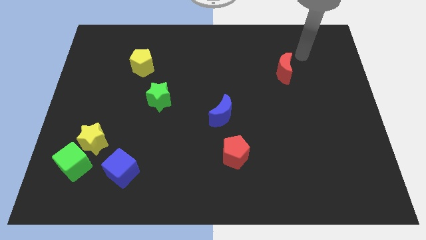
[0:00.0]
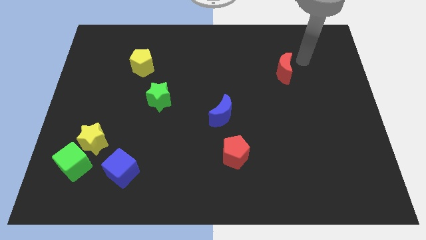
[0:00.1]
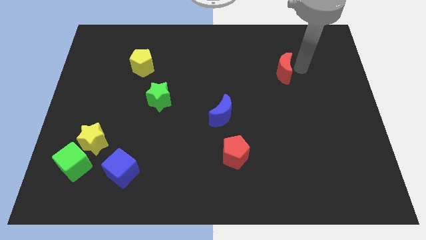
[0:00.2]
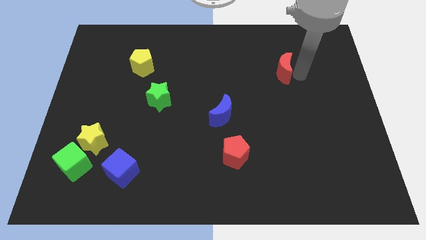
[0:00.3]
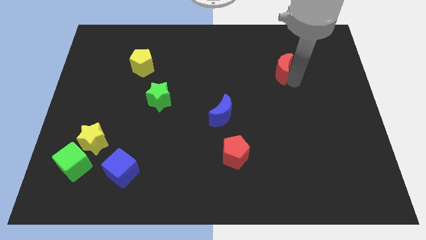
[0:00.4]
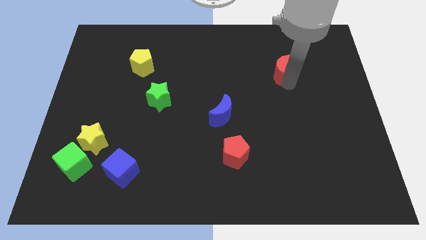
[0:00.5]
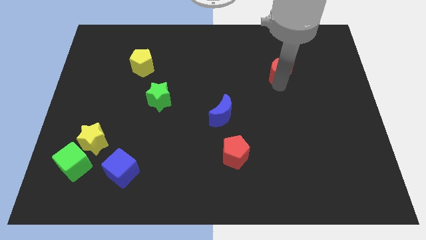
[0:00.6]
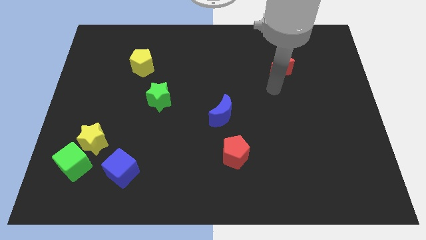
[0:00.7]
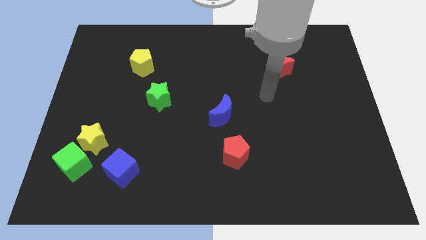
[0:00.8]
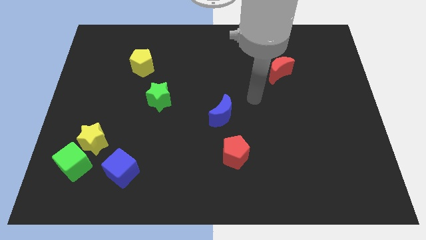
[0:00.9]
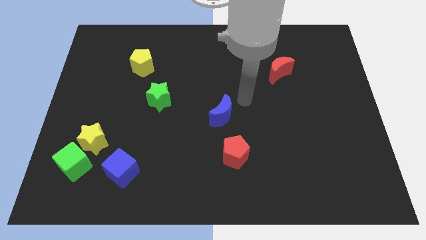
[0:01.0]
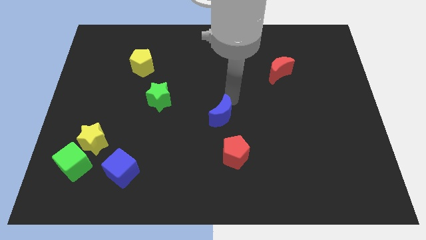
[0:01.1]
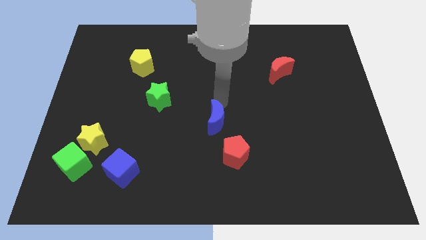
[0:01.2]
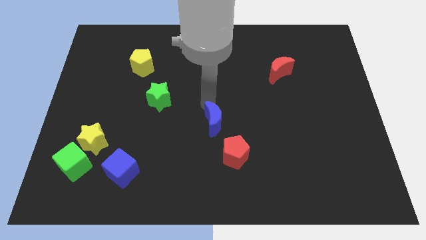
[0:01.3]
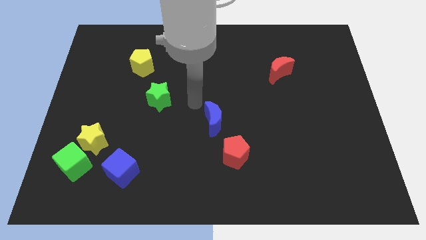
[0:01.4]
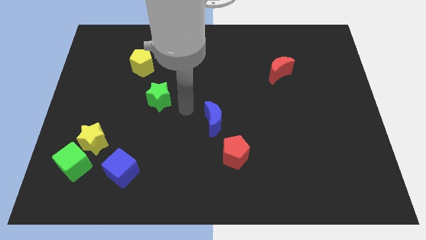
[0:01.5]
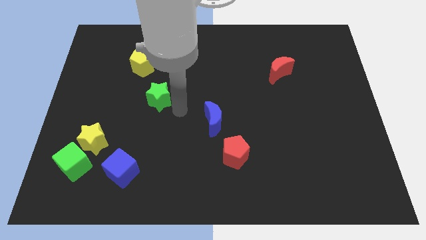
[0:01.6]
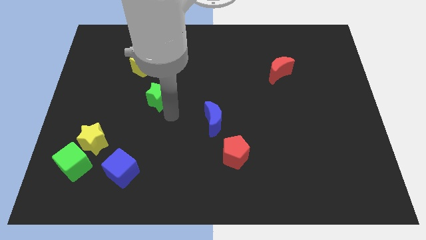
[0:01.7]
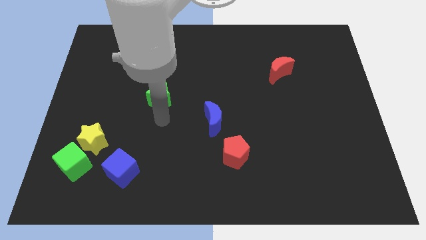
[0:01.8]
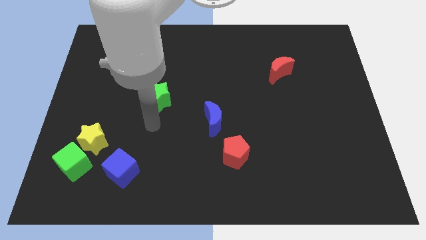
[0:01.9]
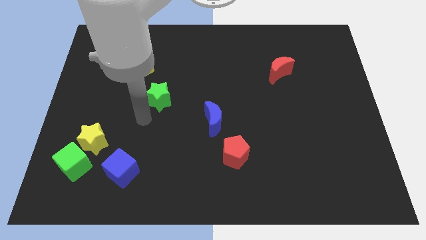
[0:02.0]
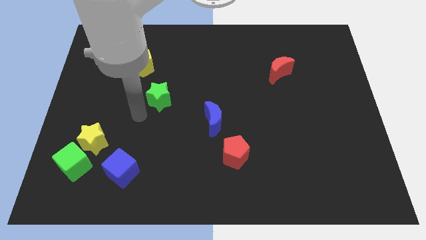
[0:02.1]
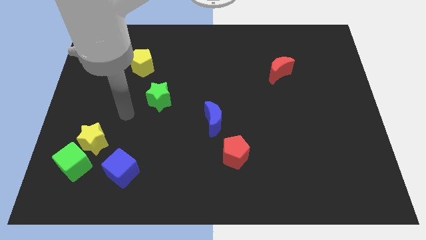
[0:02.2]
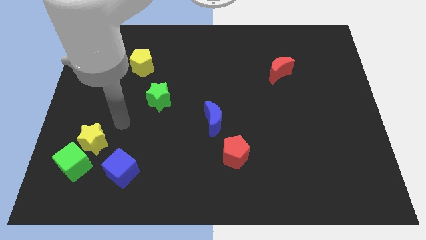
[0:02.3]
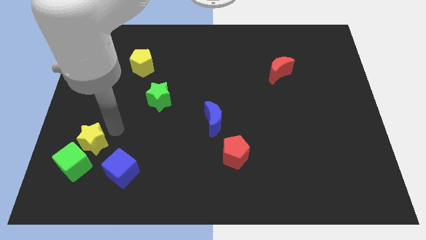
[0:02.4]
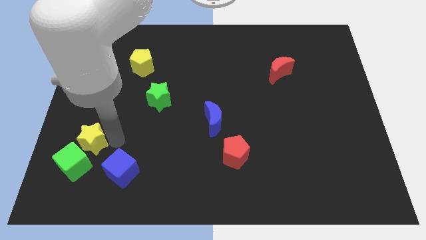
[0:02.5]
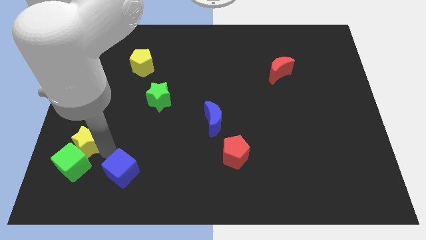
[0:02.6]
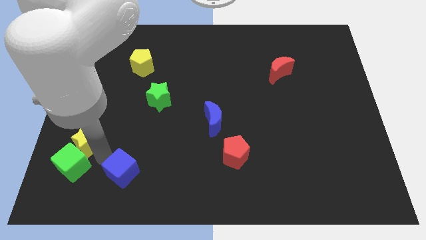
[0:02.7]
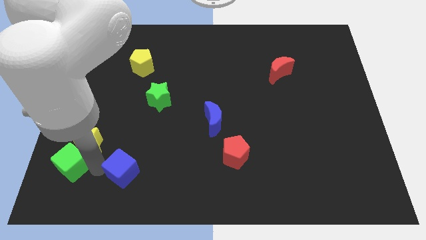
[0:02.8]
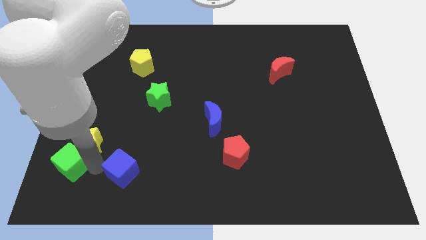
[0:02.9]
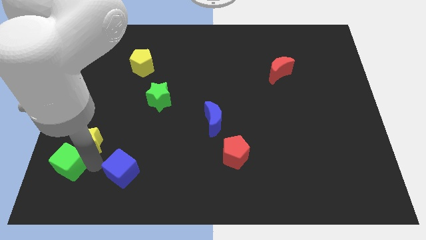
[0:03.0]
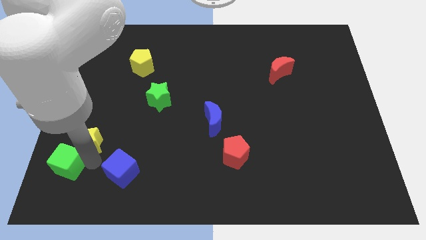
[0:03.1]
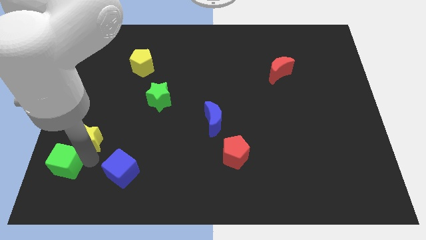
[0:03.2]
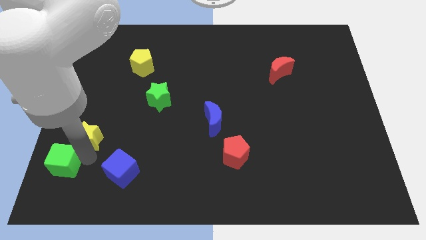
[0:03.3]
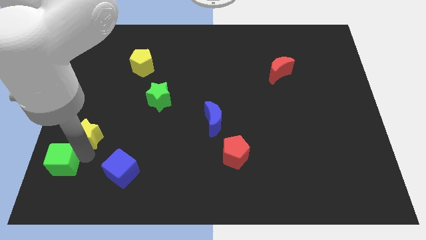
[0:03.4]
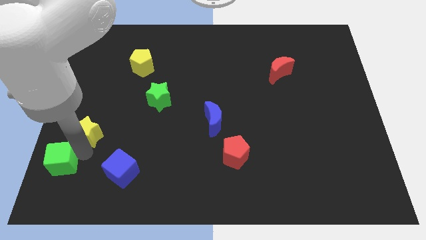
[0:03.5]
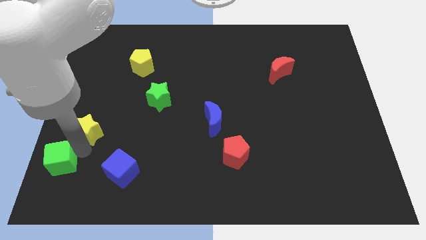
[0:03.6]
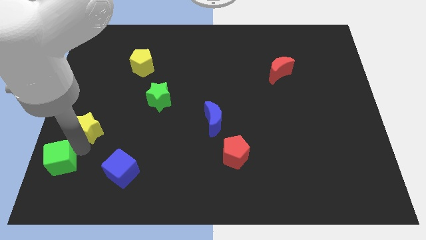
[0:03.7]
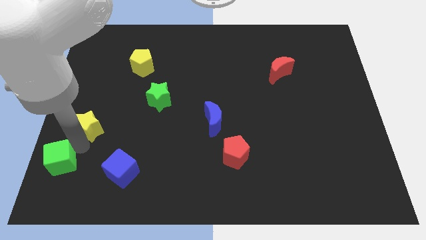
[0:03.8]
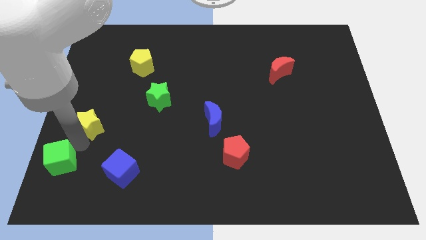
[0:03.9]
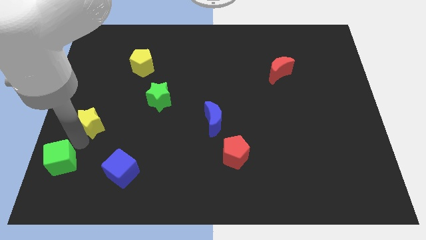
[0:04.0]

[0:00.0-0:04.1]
move the yellow star away from the green cube and blue cube

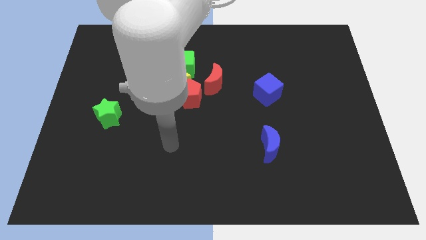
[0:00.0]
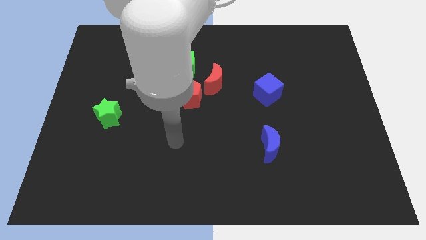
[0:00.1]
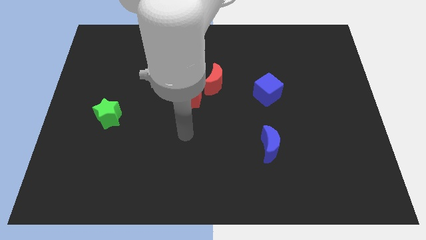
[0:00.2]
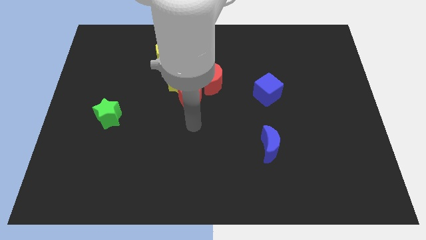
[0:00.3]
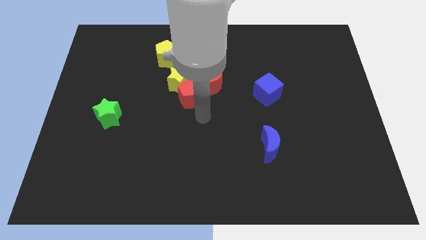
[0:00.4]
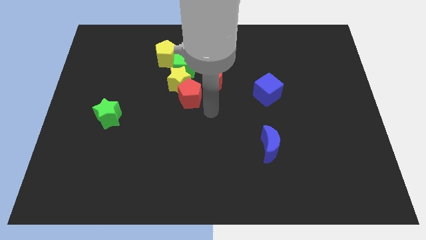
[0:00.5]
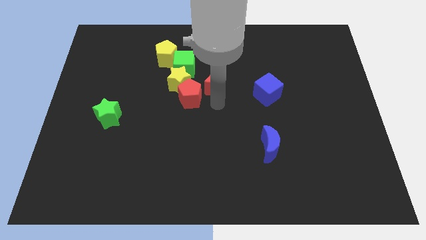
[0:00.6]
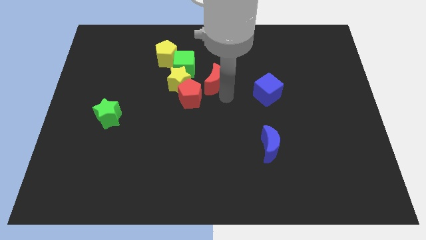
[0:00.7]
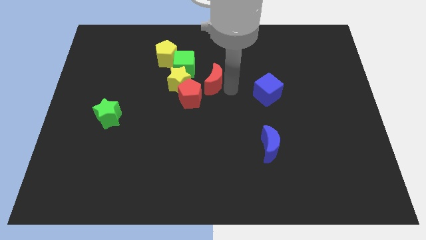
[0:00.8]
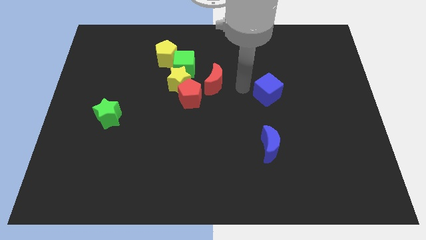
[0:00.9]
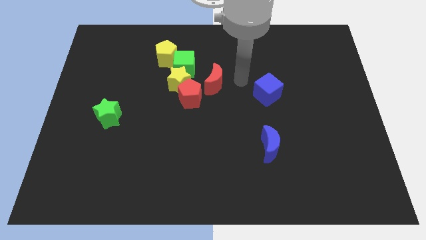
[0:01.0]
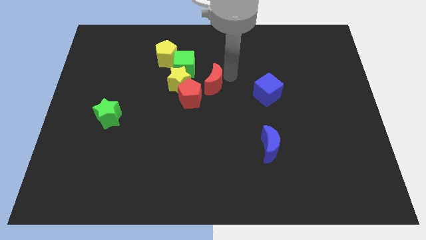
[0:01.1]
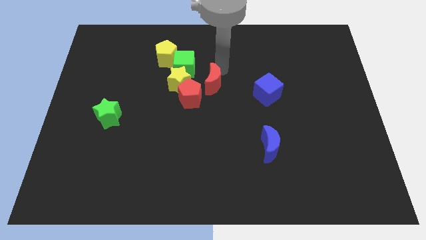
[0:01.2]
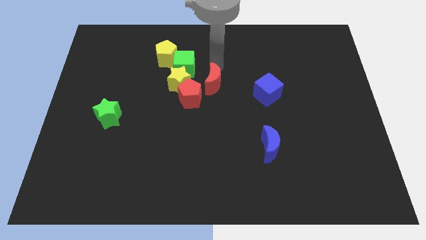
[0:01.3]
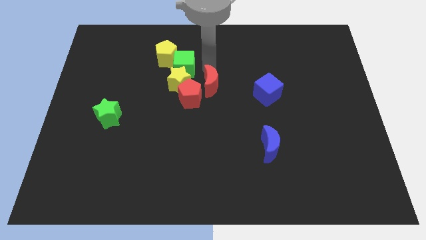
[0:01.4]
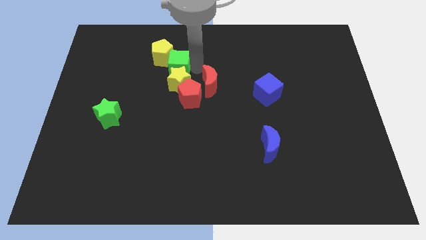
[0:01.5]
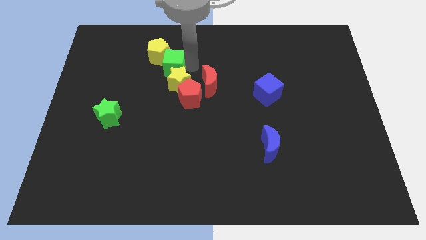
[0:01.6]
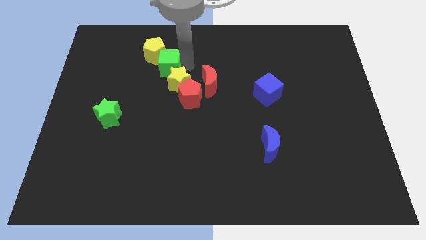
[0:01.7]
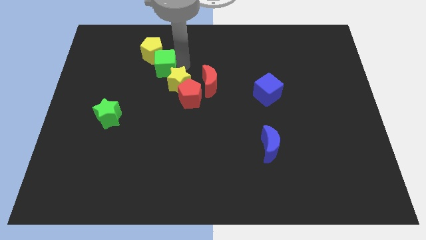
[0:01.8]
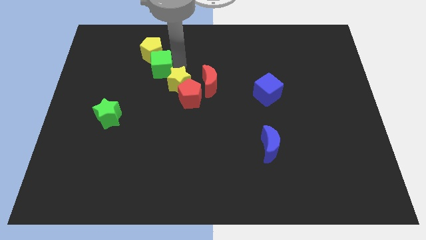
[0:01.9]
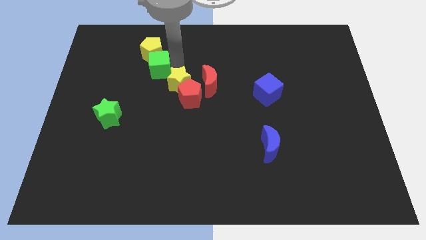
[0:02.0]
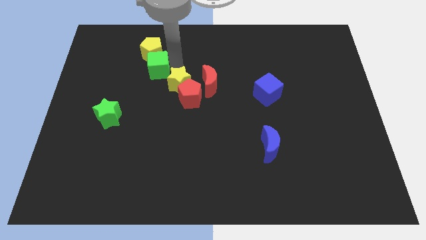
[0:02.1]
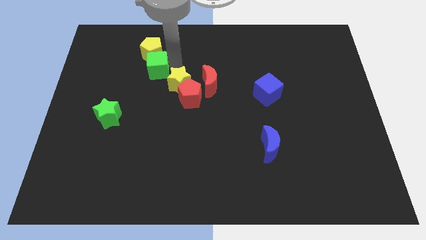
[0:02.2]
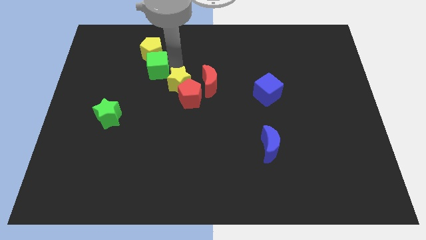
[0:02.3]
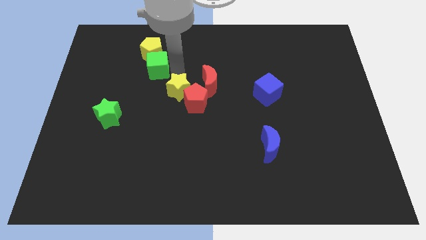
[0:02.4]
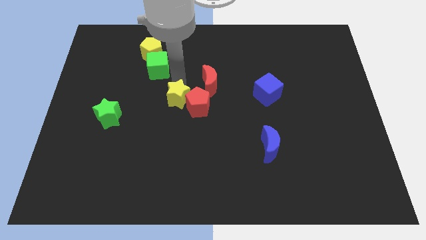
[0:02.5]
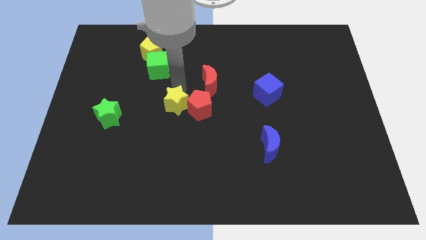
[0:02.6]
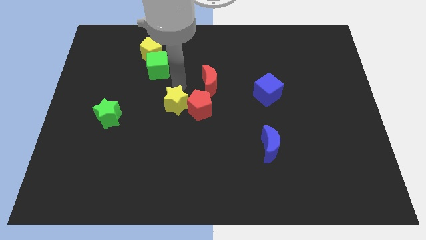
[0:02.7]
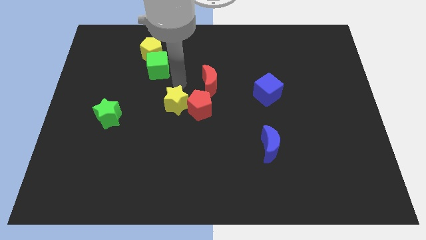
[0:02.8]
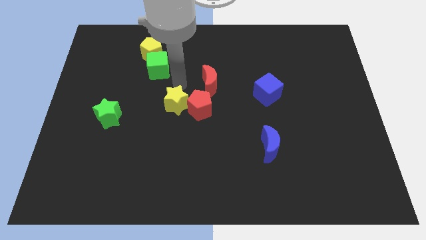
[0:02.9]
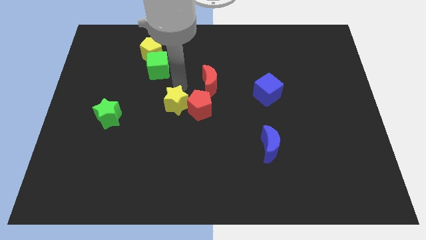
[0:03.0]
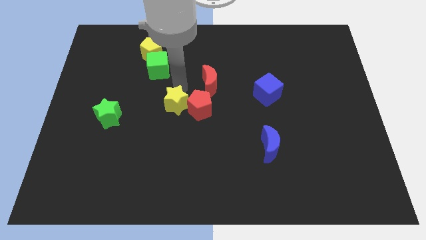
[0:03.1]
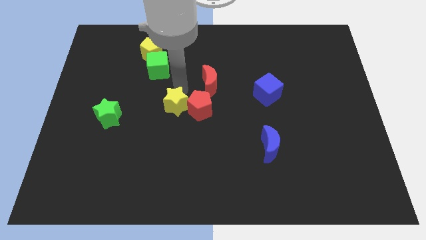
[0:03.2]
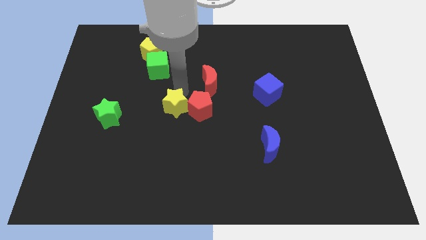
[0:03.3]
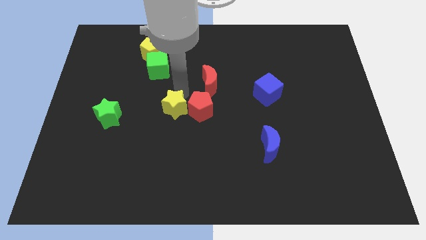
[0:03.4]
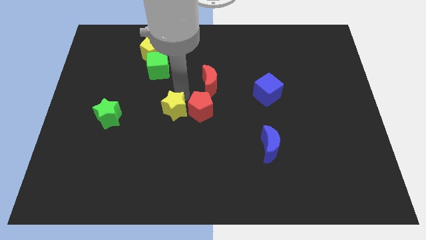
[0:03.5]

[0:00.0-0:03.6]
move the yellow star away from the clump

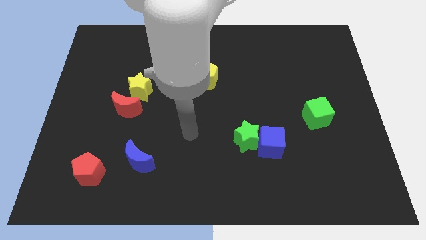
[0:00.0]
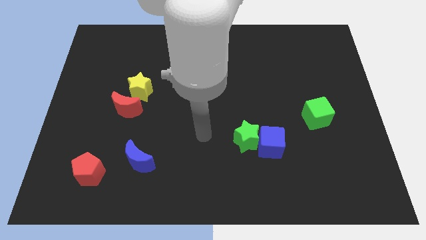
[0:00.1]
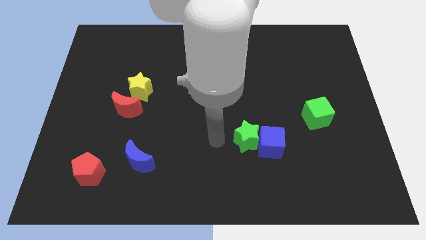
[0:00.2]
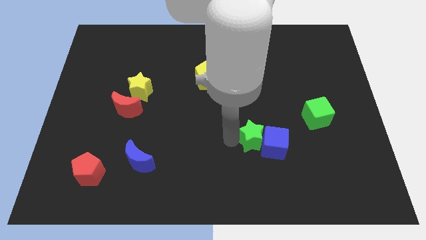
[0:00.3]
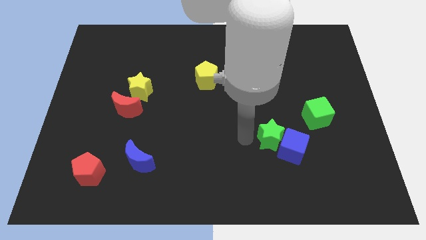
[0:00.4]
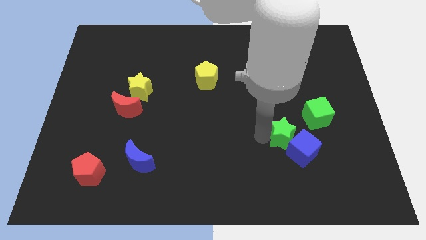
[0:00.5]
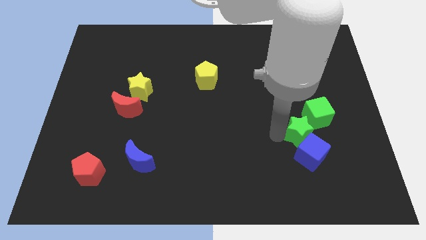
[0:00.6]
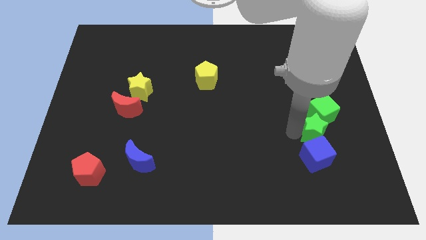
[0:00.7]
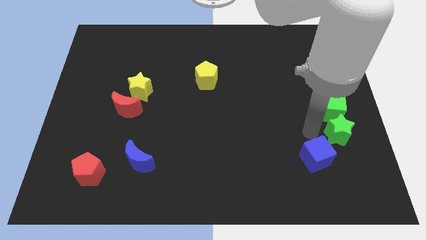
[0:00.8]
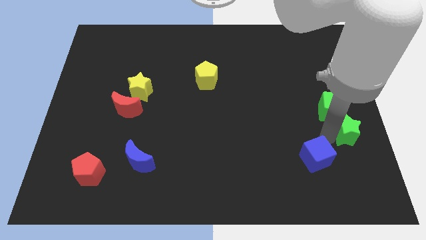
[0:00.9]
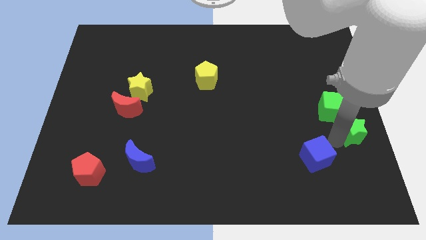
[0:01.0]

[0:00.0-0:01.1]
separate the blue cube from the green star

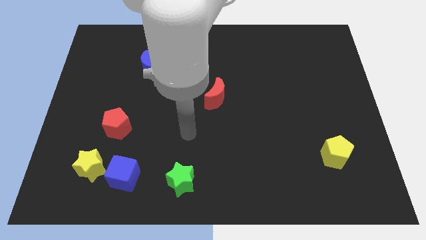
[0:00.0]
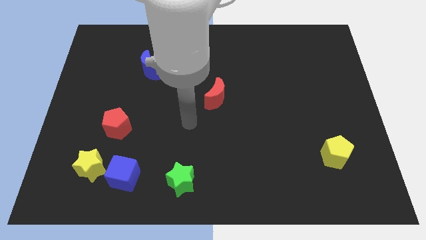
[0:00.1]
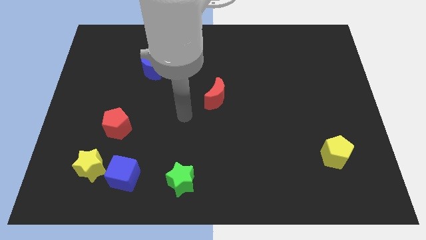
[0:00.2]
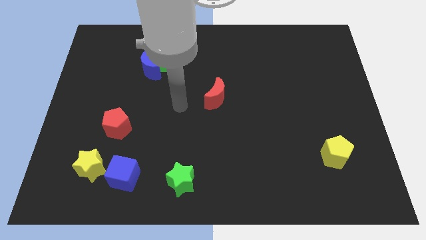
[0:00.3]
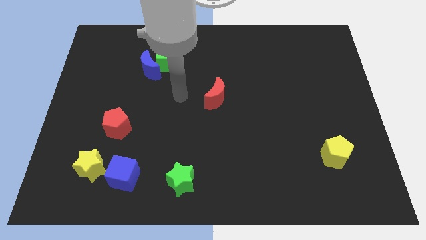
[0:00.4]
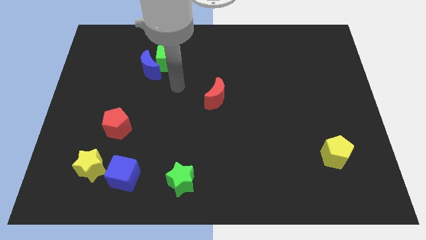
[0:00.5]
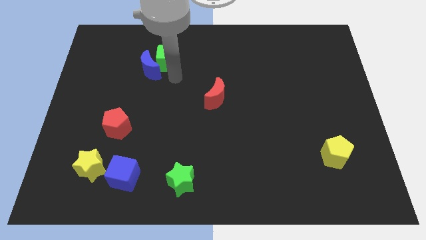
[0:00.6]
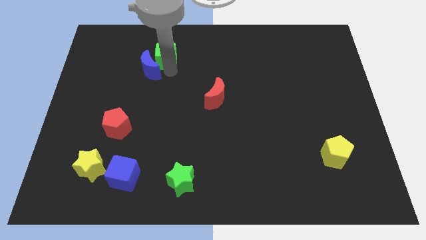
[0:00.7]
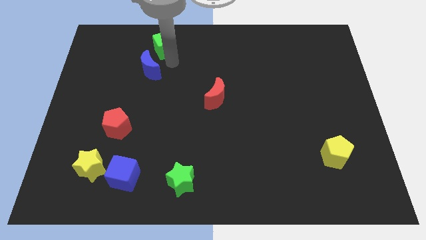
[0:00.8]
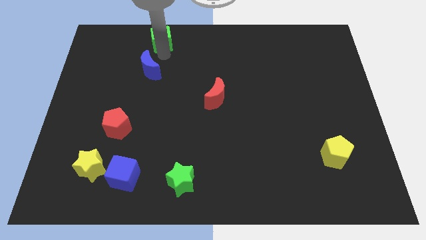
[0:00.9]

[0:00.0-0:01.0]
move the blue moon away from the green cube
